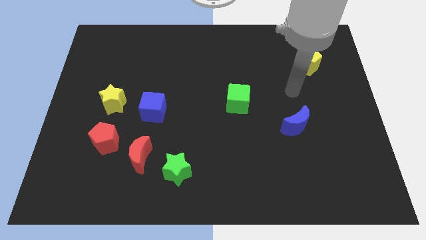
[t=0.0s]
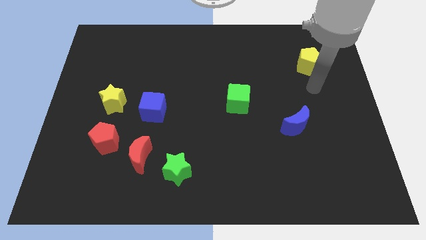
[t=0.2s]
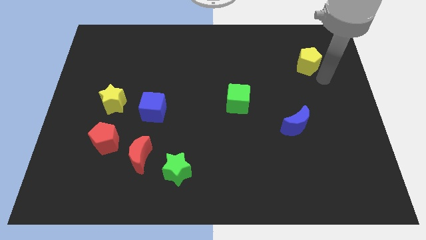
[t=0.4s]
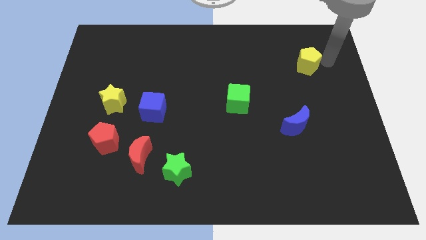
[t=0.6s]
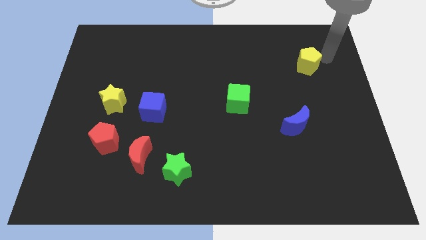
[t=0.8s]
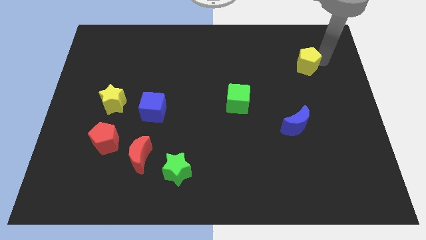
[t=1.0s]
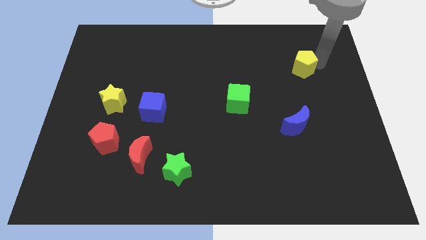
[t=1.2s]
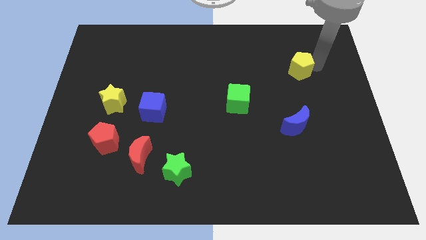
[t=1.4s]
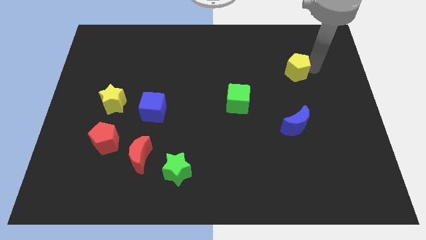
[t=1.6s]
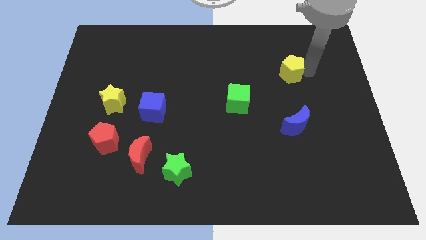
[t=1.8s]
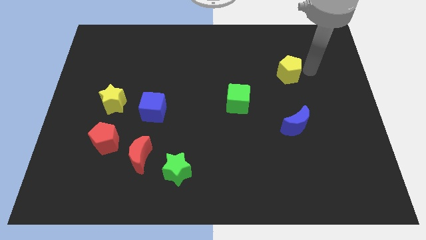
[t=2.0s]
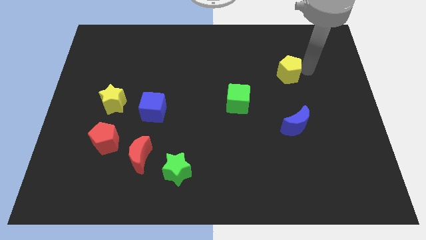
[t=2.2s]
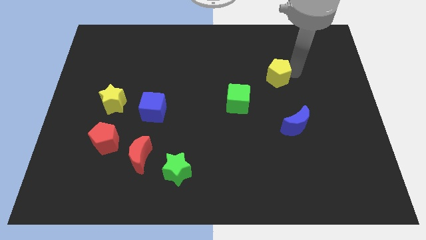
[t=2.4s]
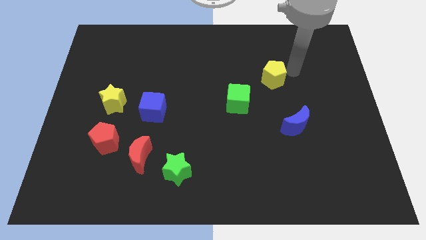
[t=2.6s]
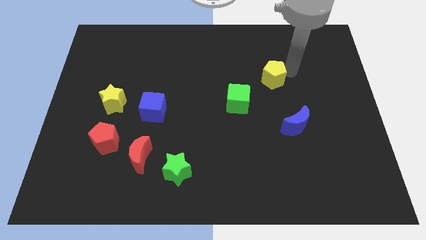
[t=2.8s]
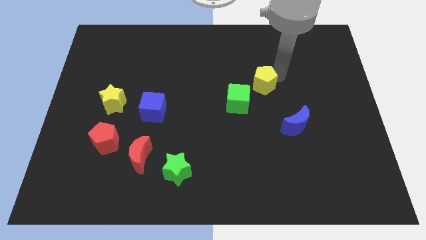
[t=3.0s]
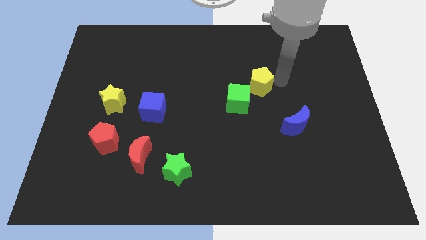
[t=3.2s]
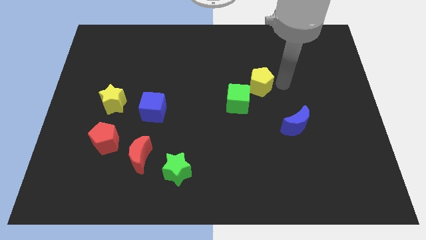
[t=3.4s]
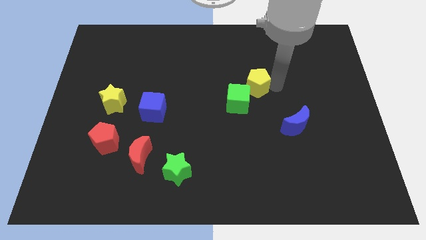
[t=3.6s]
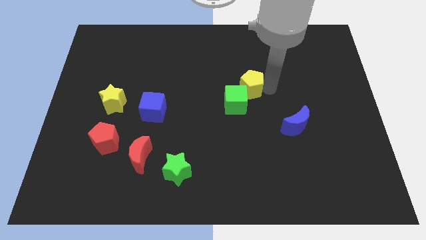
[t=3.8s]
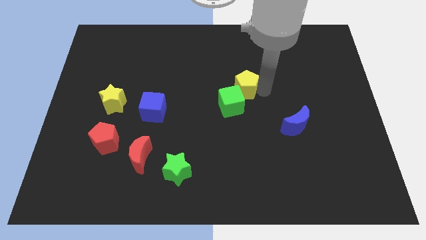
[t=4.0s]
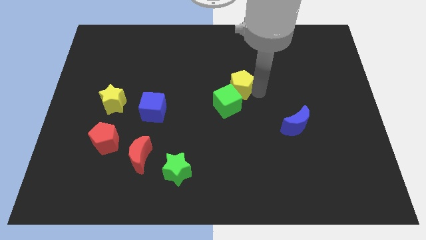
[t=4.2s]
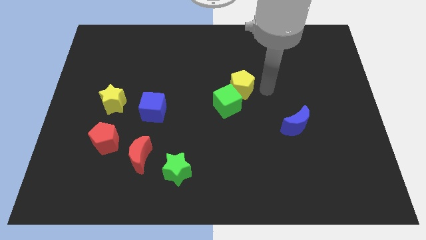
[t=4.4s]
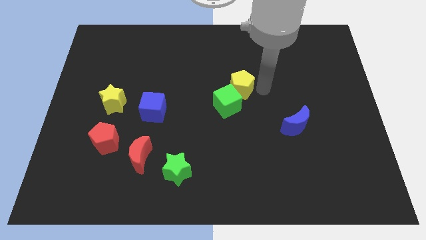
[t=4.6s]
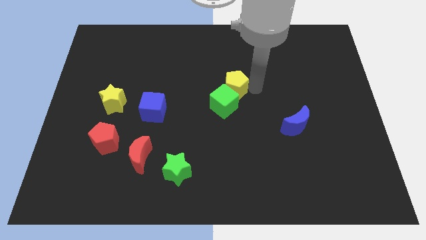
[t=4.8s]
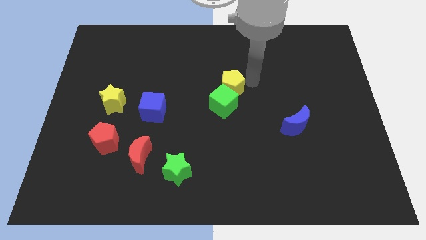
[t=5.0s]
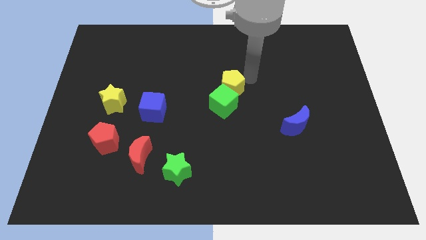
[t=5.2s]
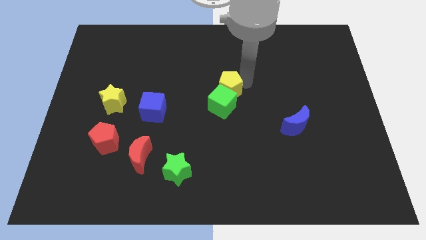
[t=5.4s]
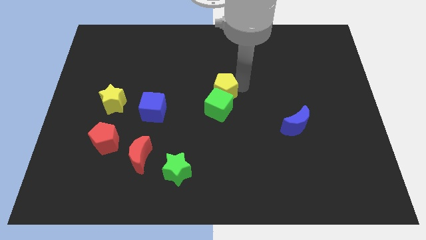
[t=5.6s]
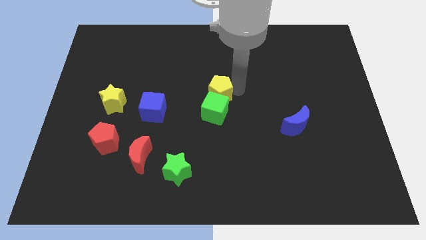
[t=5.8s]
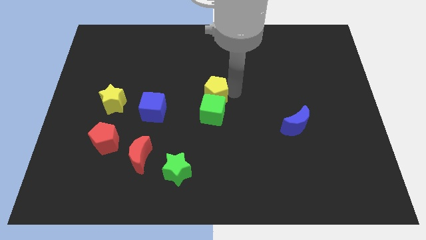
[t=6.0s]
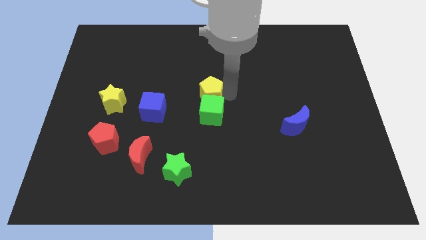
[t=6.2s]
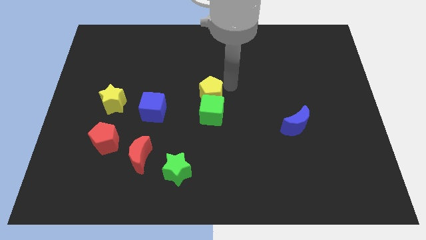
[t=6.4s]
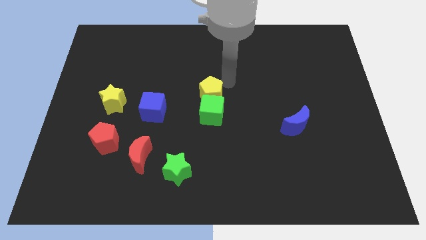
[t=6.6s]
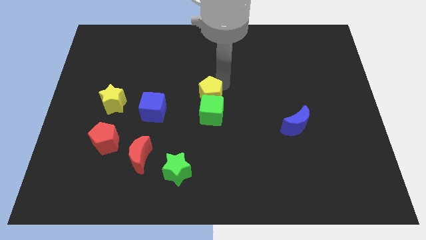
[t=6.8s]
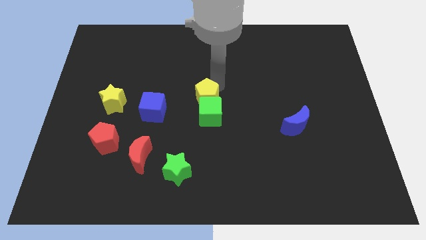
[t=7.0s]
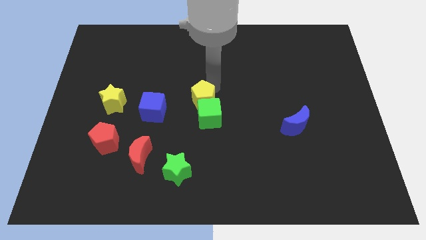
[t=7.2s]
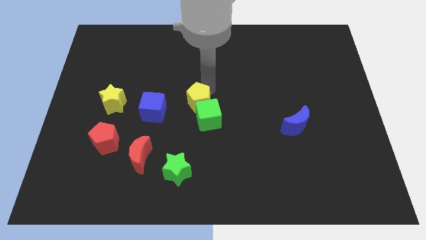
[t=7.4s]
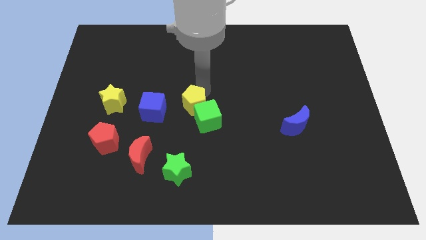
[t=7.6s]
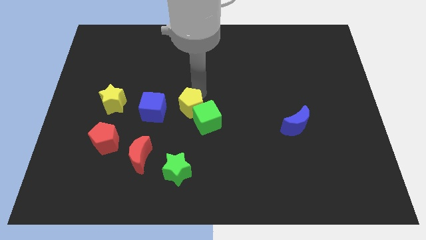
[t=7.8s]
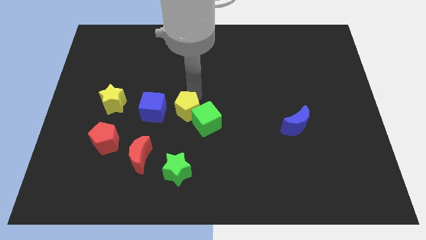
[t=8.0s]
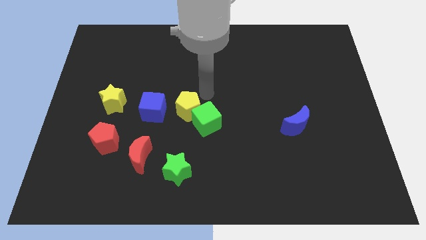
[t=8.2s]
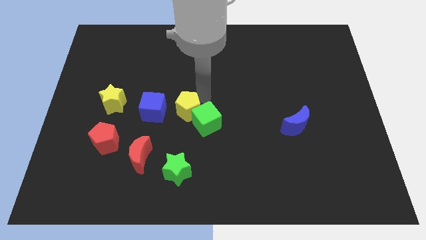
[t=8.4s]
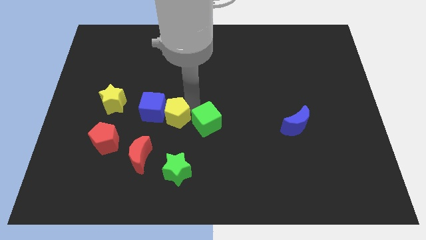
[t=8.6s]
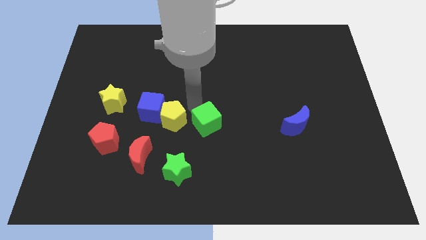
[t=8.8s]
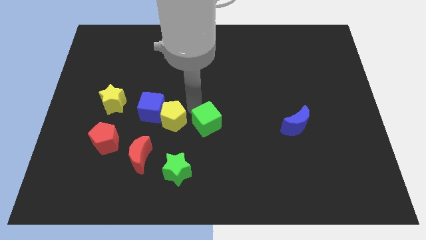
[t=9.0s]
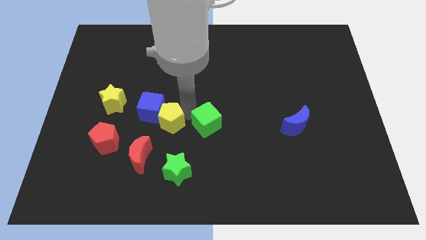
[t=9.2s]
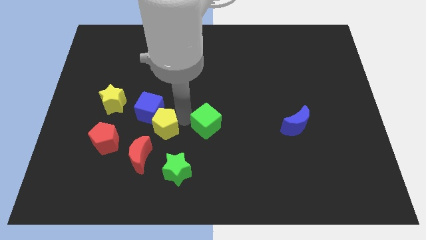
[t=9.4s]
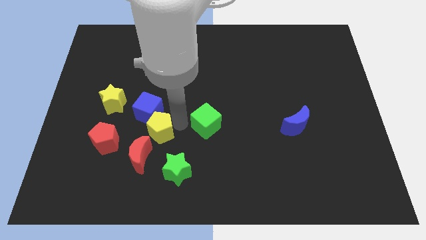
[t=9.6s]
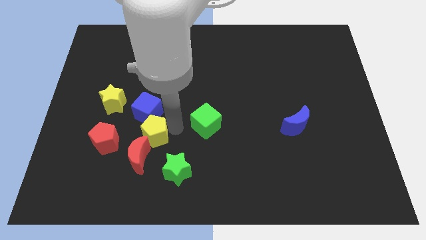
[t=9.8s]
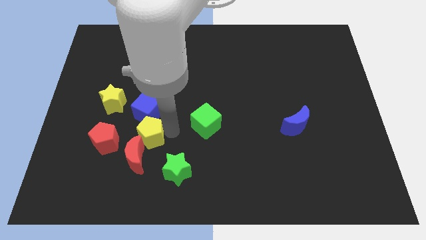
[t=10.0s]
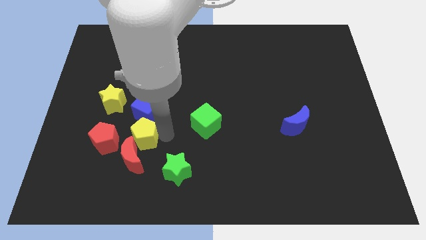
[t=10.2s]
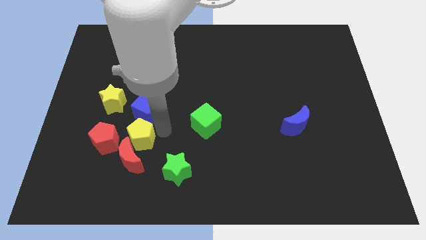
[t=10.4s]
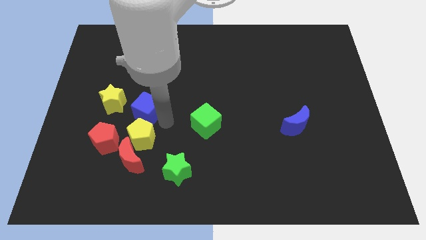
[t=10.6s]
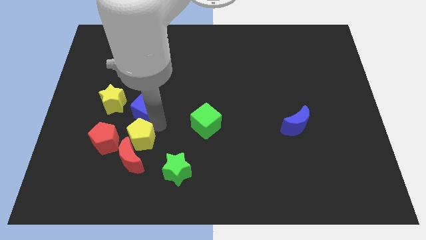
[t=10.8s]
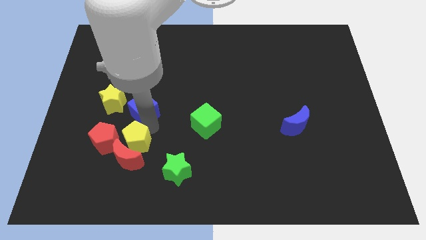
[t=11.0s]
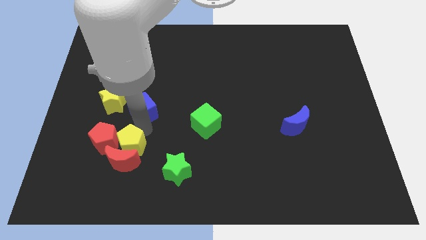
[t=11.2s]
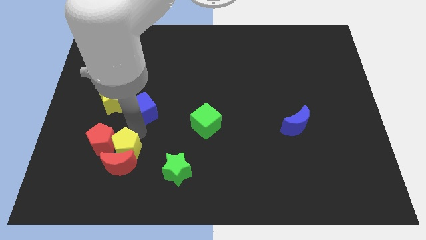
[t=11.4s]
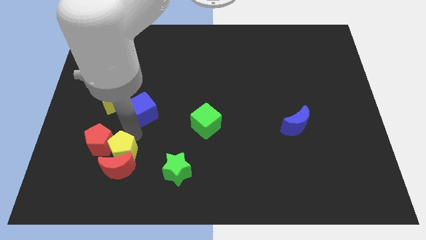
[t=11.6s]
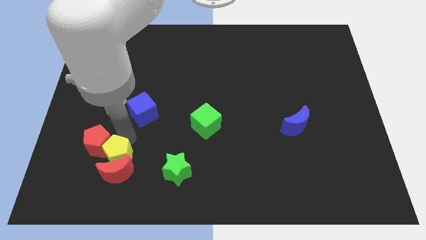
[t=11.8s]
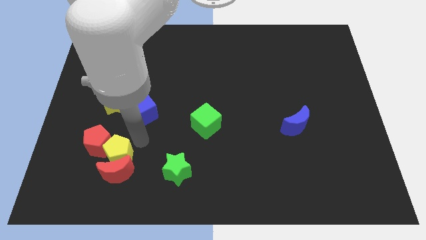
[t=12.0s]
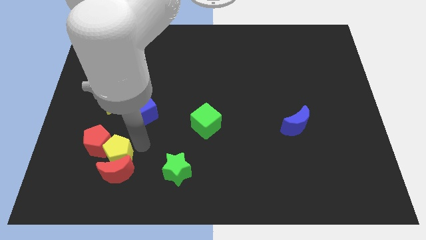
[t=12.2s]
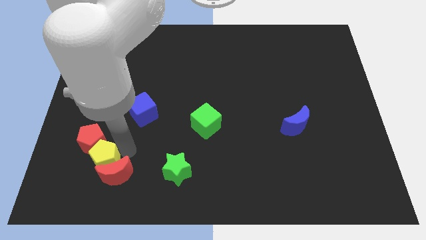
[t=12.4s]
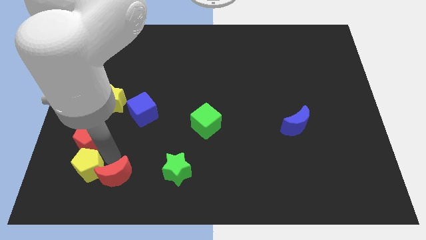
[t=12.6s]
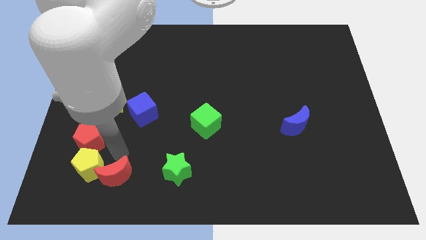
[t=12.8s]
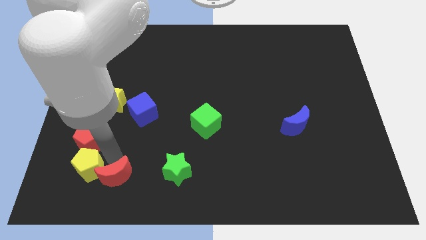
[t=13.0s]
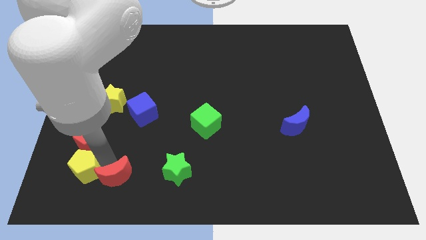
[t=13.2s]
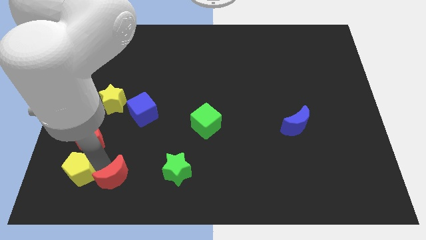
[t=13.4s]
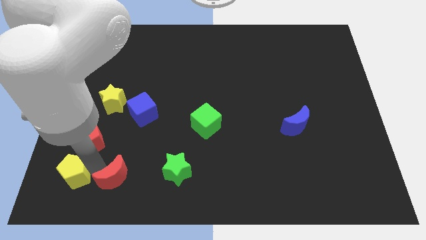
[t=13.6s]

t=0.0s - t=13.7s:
slide the yellow pentagon to the bottom left corner
